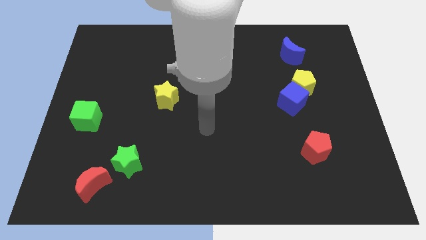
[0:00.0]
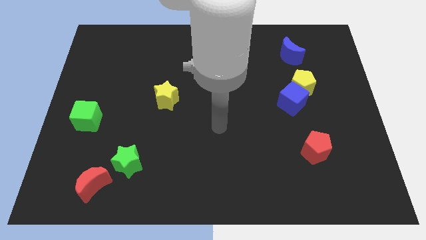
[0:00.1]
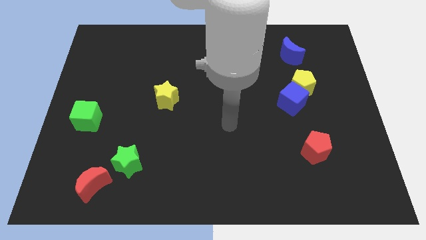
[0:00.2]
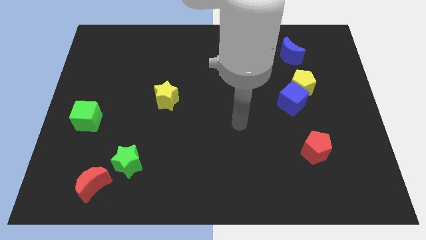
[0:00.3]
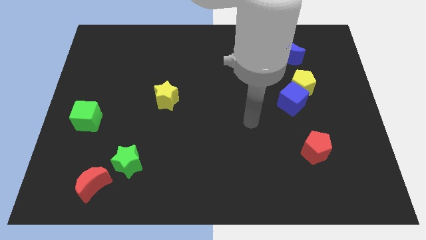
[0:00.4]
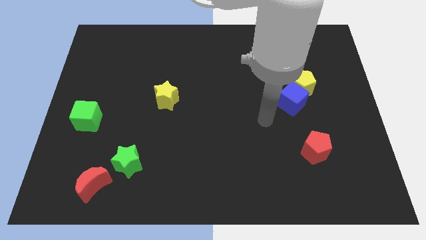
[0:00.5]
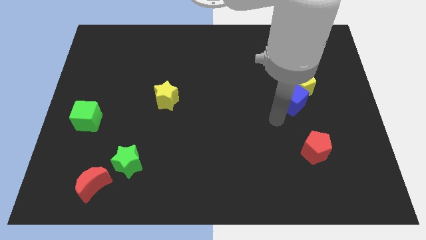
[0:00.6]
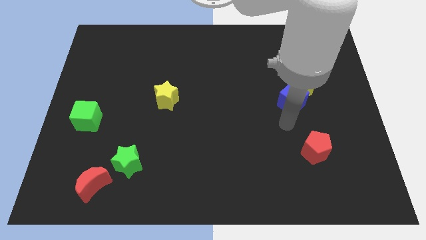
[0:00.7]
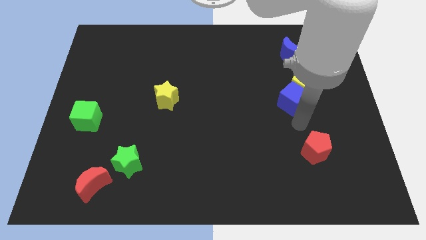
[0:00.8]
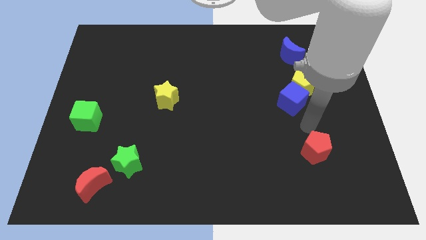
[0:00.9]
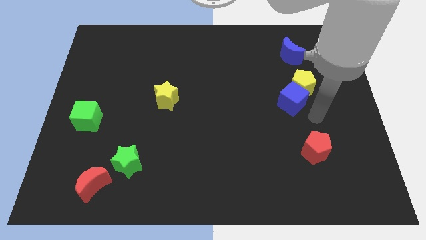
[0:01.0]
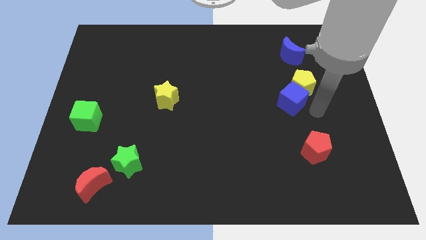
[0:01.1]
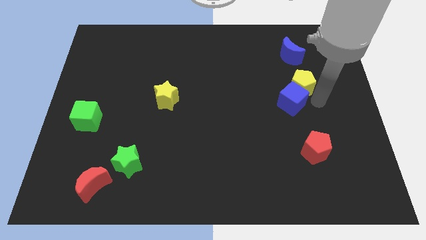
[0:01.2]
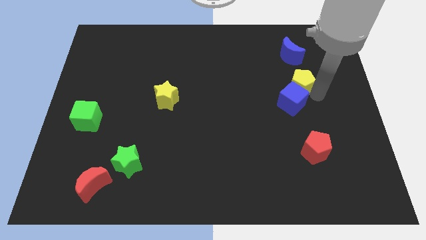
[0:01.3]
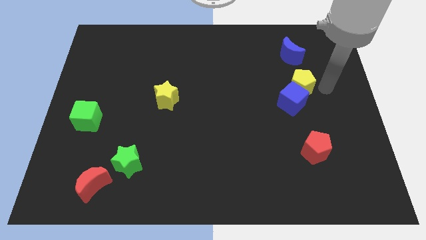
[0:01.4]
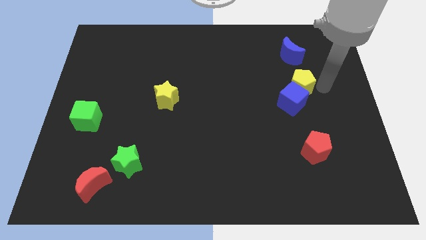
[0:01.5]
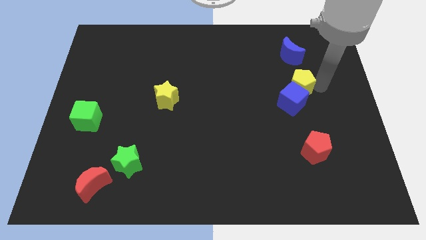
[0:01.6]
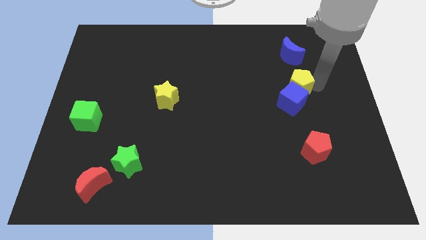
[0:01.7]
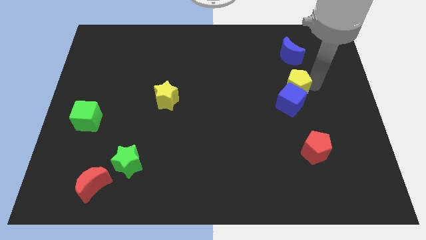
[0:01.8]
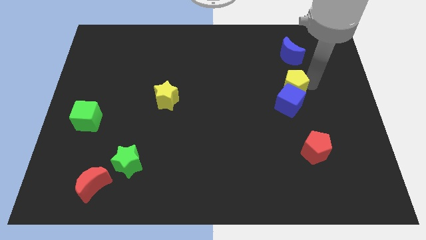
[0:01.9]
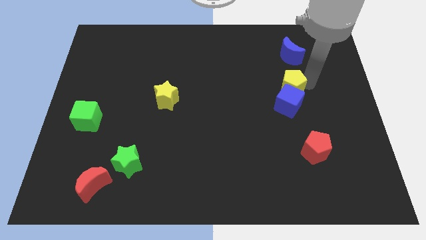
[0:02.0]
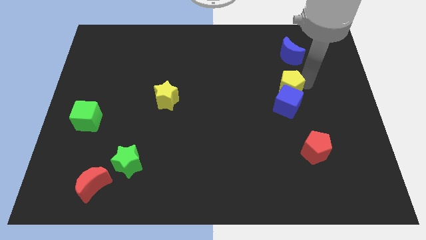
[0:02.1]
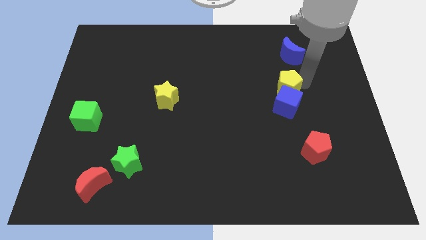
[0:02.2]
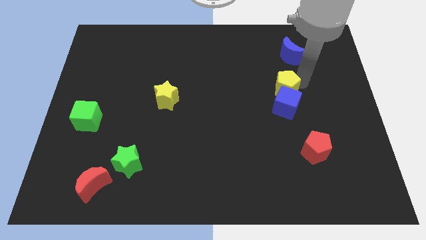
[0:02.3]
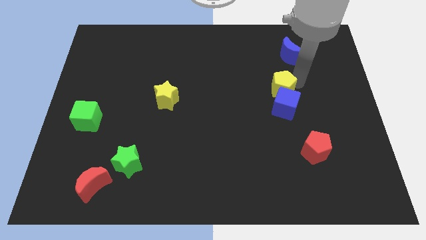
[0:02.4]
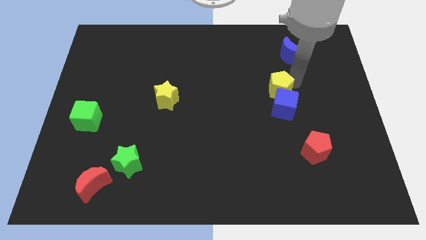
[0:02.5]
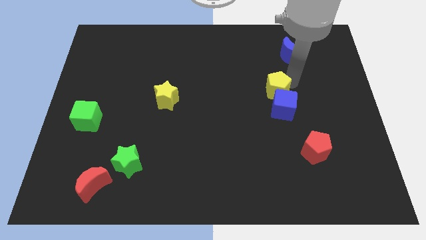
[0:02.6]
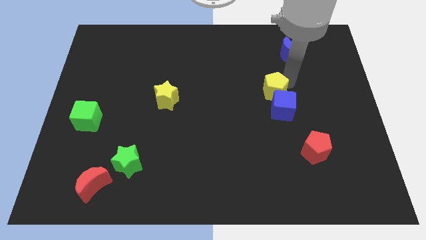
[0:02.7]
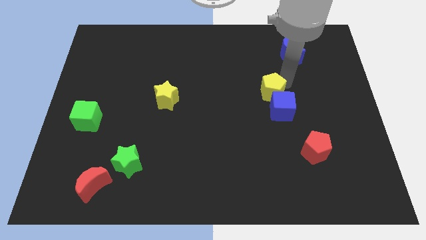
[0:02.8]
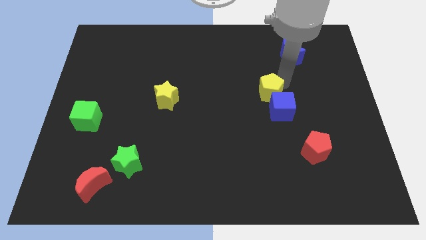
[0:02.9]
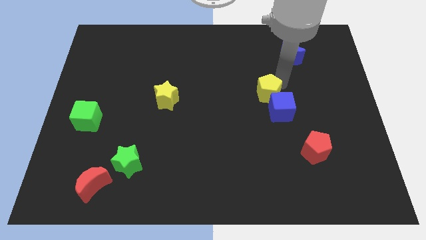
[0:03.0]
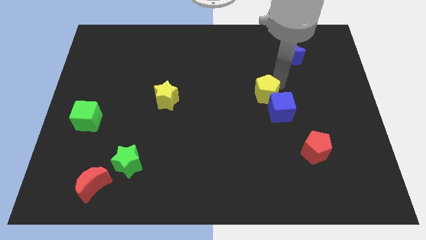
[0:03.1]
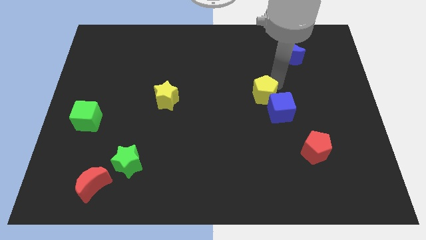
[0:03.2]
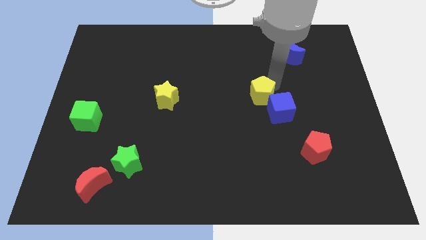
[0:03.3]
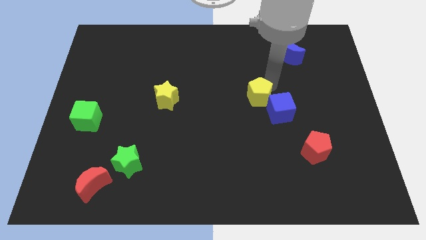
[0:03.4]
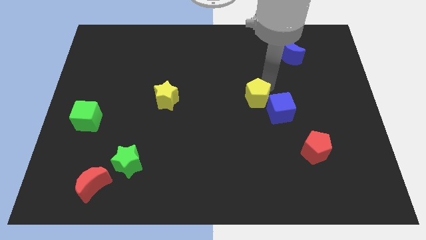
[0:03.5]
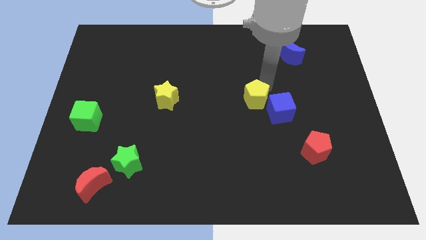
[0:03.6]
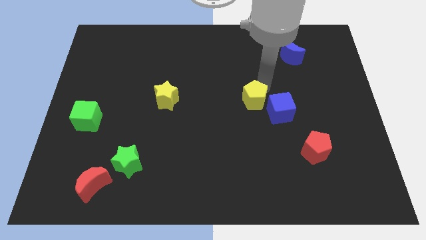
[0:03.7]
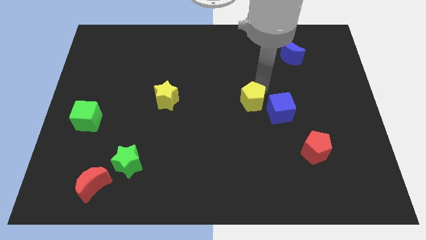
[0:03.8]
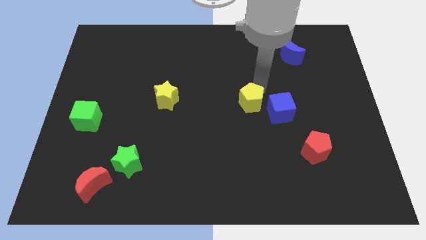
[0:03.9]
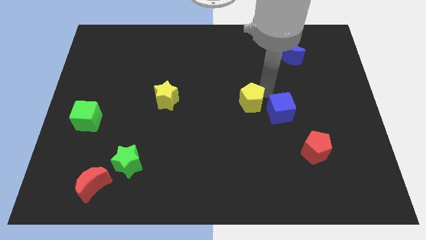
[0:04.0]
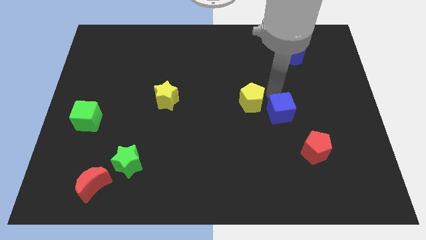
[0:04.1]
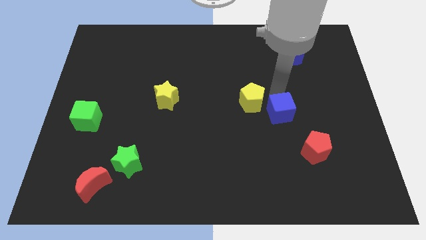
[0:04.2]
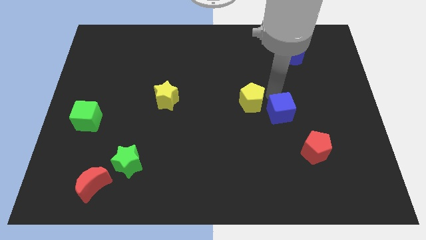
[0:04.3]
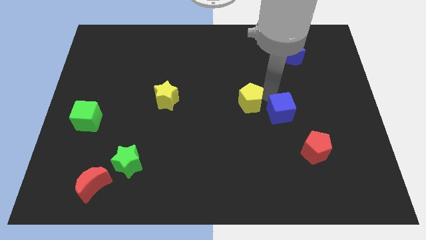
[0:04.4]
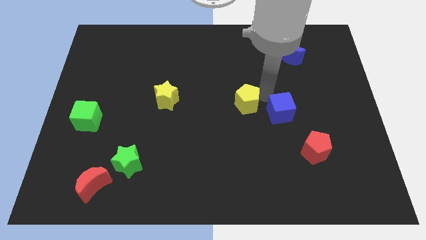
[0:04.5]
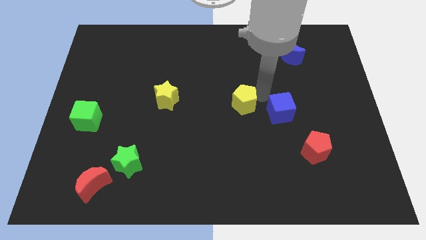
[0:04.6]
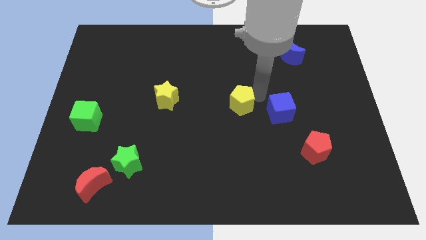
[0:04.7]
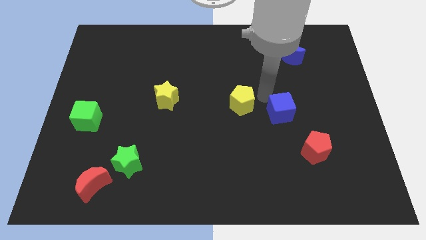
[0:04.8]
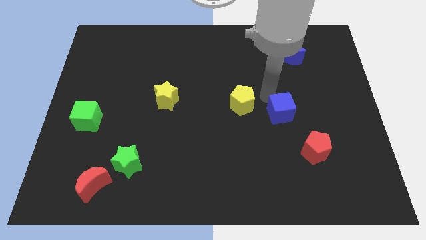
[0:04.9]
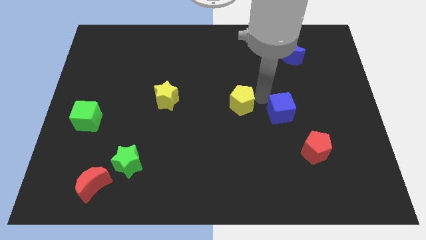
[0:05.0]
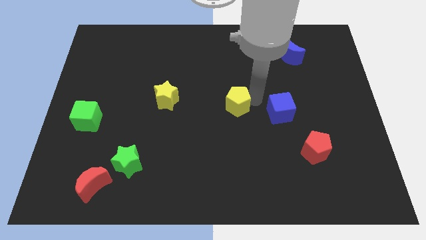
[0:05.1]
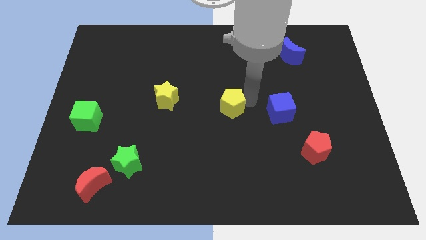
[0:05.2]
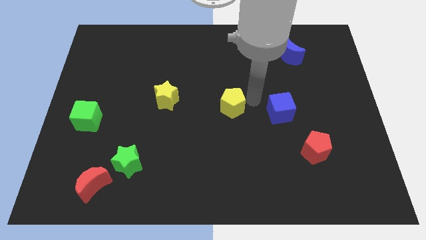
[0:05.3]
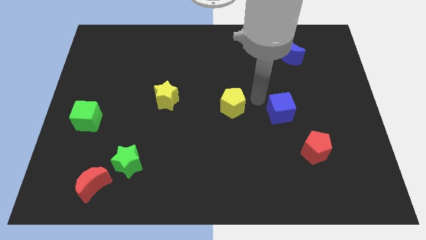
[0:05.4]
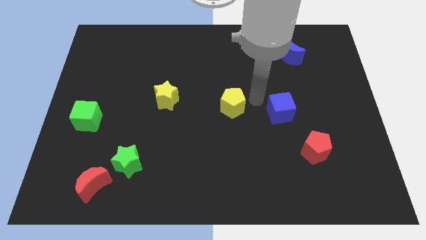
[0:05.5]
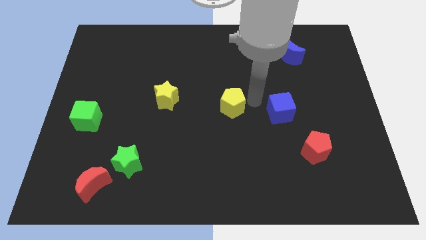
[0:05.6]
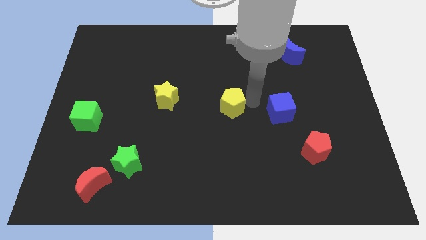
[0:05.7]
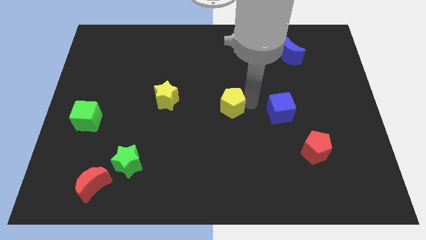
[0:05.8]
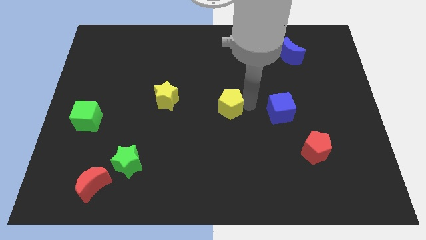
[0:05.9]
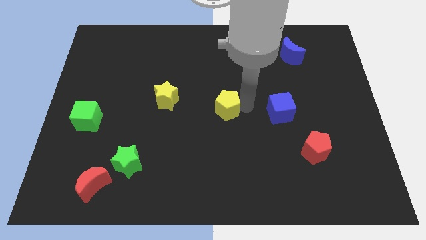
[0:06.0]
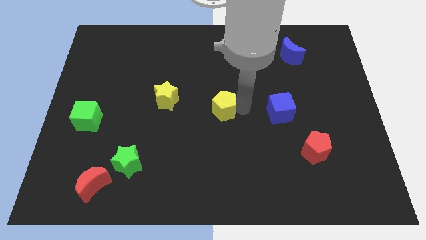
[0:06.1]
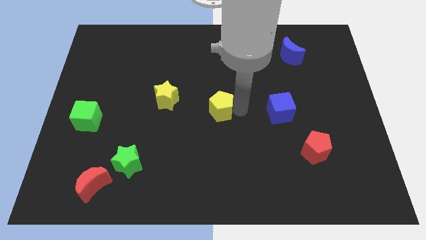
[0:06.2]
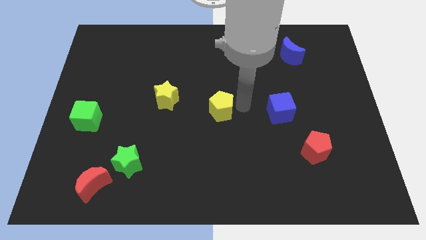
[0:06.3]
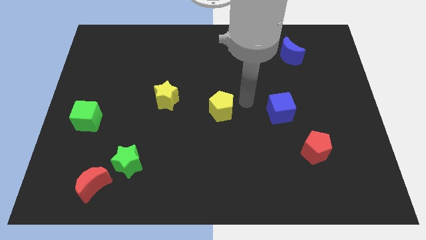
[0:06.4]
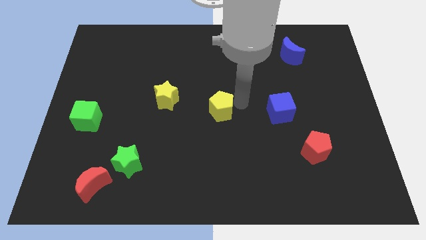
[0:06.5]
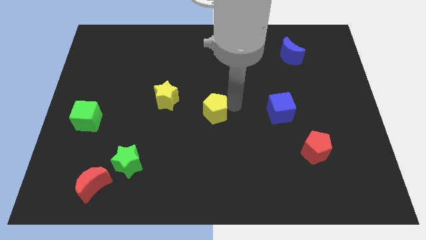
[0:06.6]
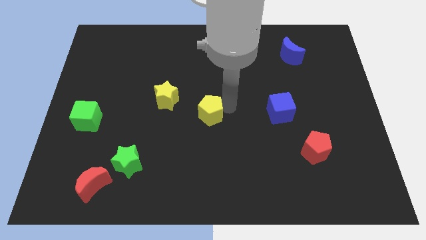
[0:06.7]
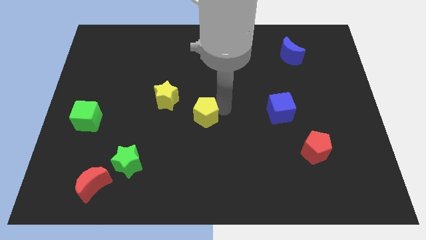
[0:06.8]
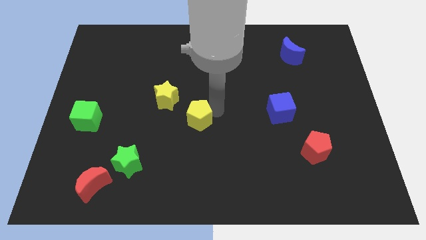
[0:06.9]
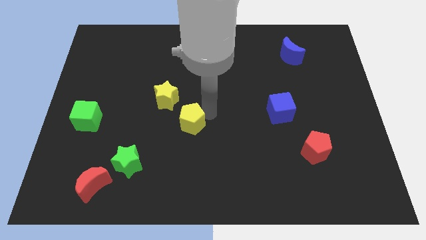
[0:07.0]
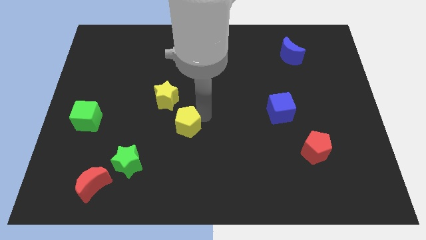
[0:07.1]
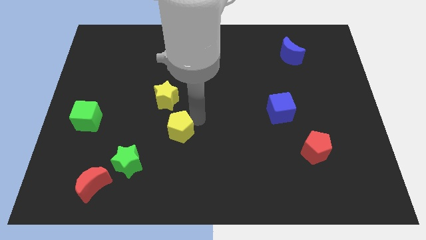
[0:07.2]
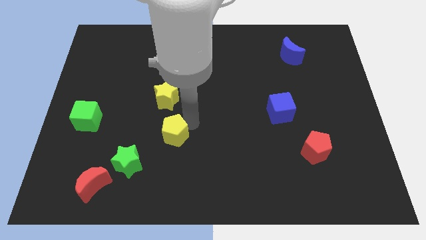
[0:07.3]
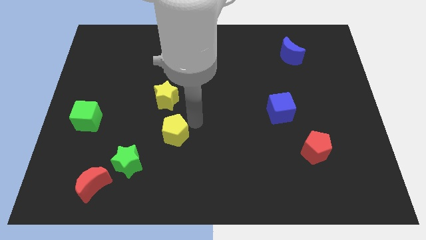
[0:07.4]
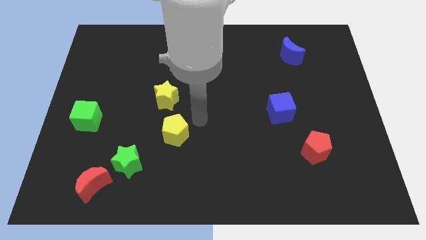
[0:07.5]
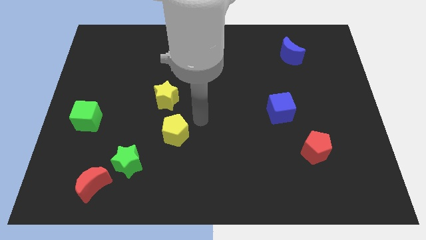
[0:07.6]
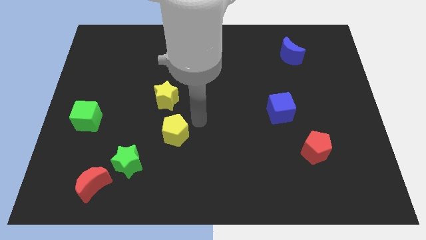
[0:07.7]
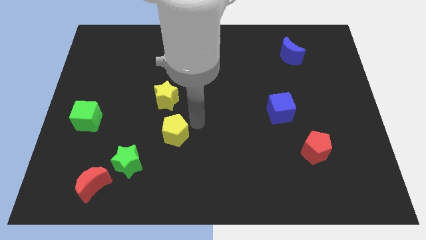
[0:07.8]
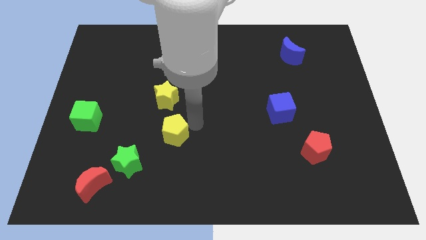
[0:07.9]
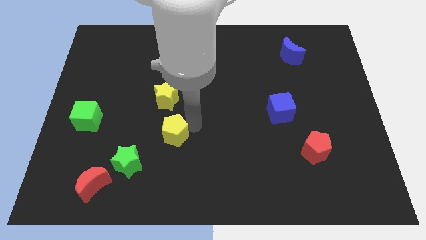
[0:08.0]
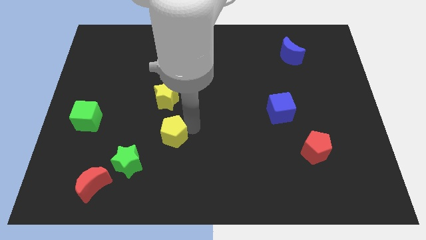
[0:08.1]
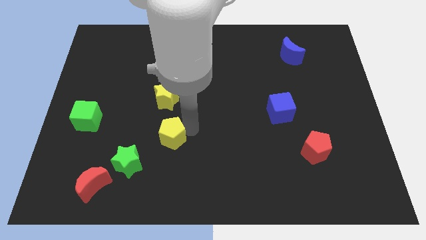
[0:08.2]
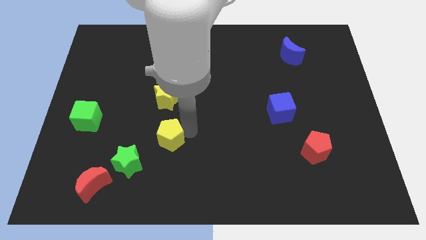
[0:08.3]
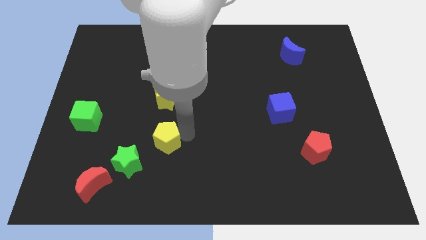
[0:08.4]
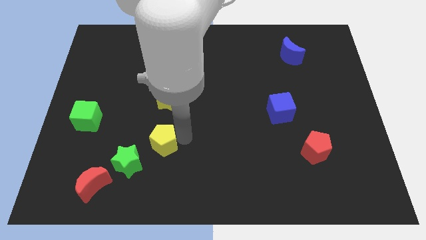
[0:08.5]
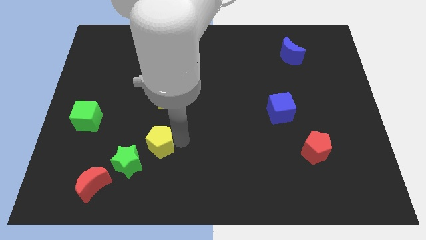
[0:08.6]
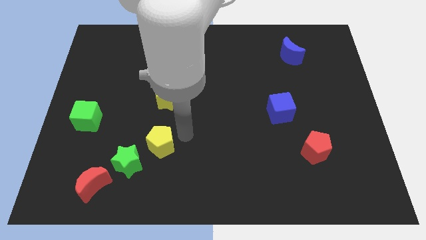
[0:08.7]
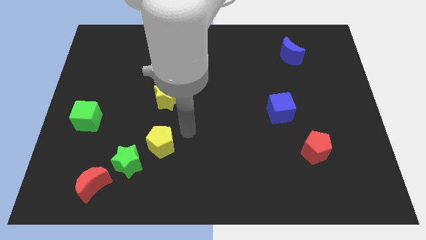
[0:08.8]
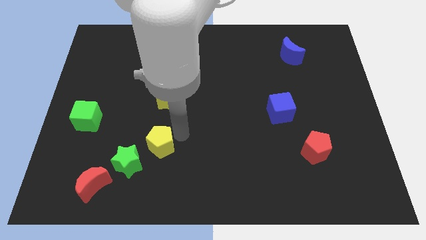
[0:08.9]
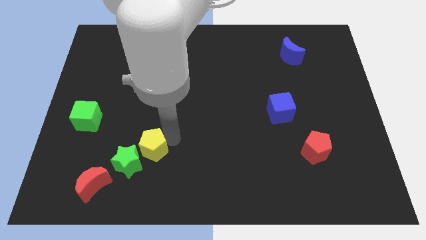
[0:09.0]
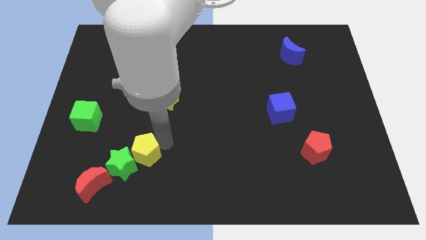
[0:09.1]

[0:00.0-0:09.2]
move the yellow pentagon to the green star
